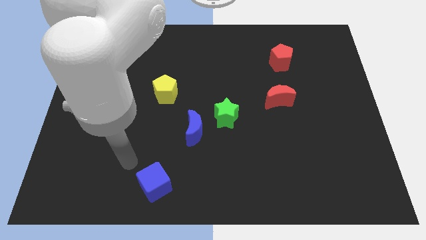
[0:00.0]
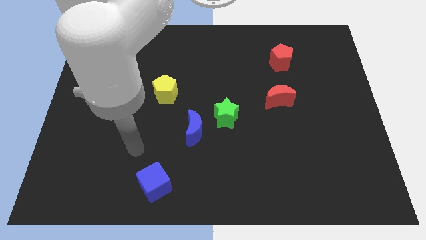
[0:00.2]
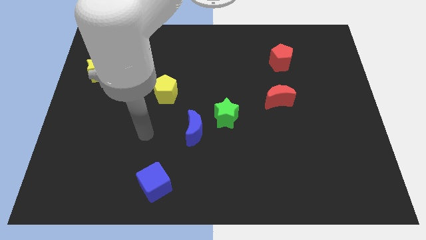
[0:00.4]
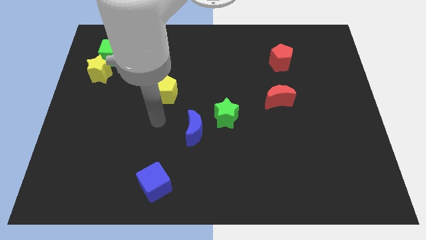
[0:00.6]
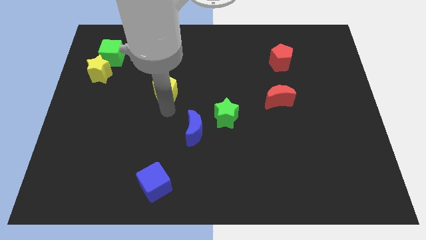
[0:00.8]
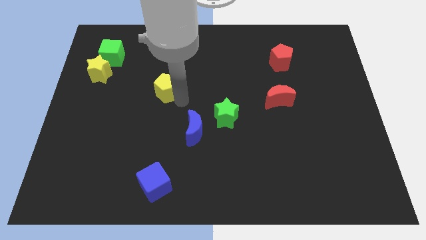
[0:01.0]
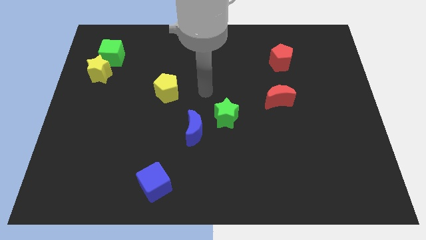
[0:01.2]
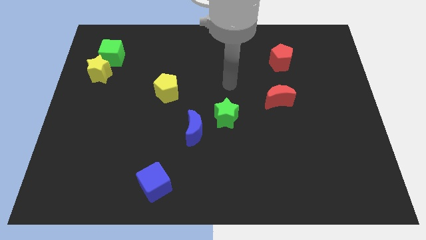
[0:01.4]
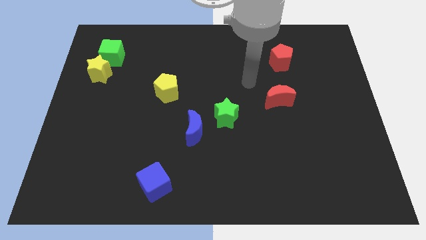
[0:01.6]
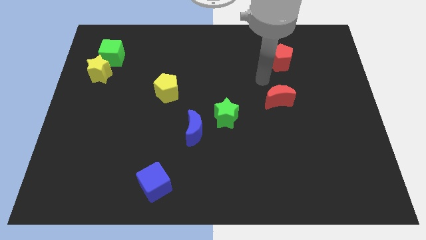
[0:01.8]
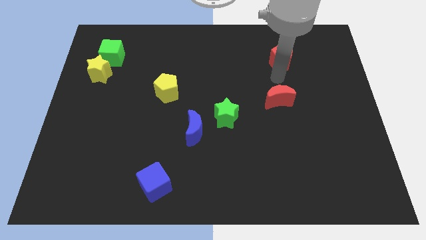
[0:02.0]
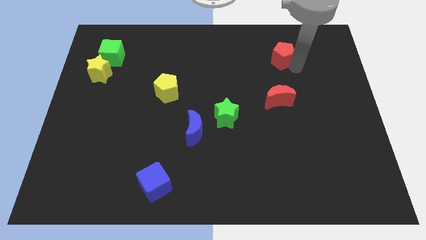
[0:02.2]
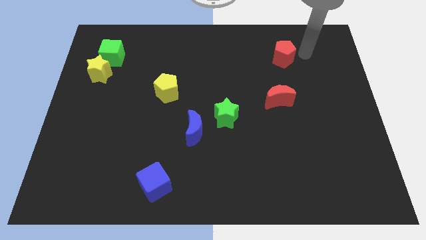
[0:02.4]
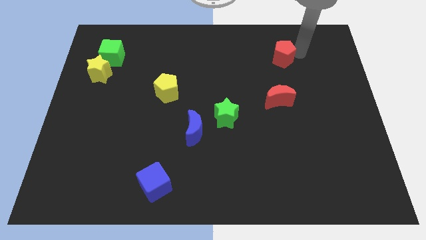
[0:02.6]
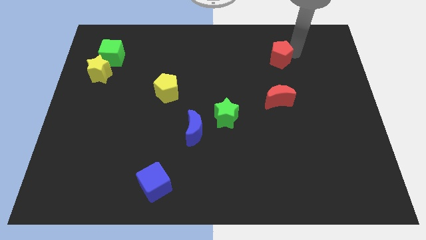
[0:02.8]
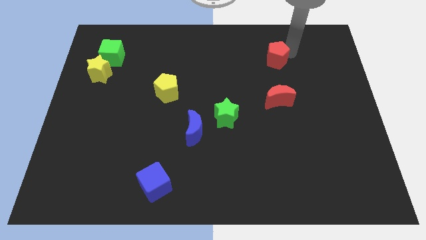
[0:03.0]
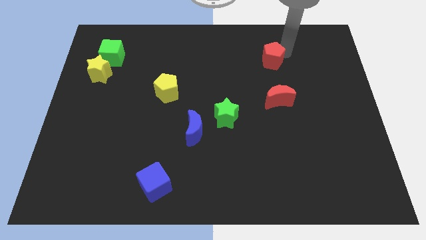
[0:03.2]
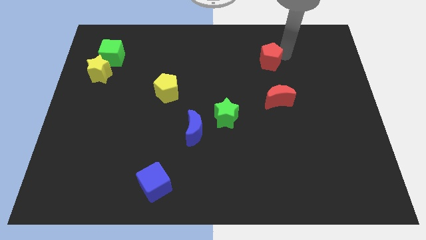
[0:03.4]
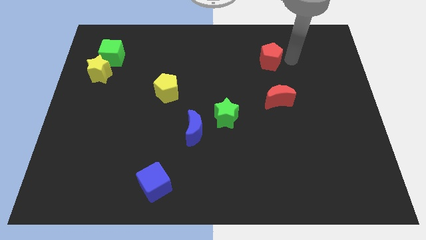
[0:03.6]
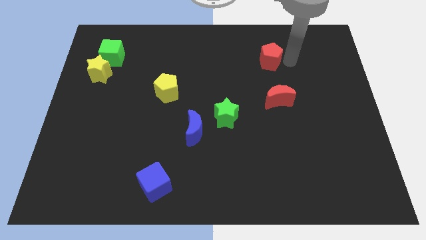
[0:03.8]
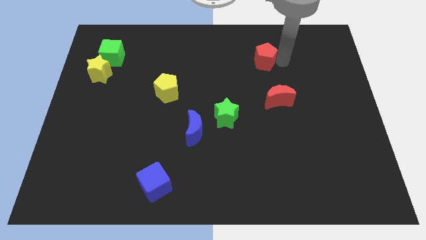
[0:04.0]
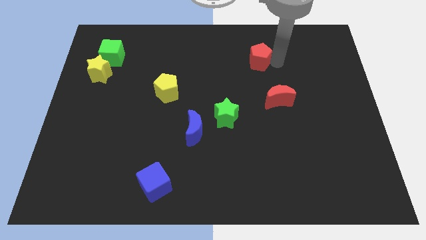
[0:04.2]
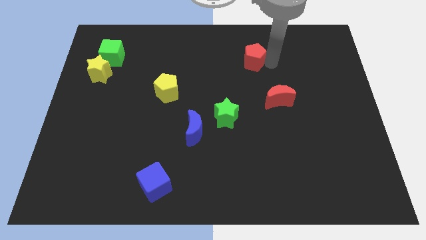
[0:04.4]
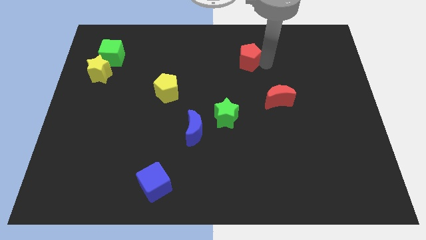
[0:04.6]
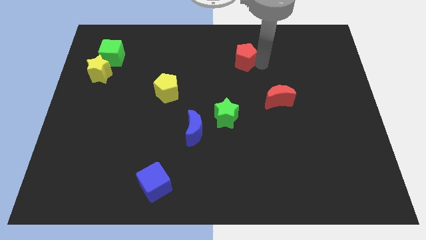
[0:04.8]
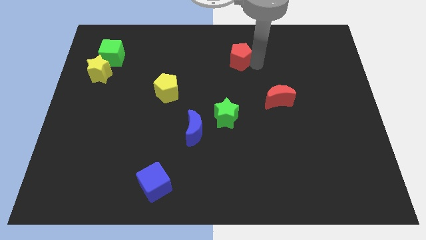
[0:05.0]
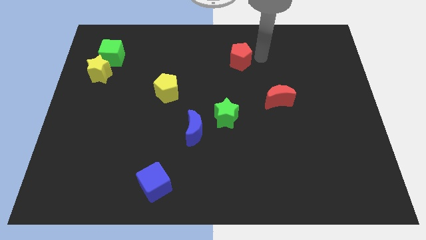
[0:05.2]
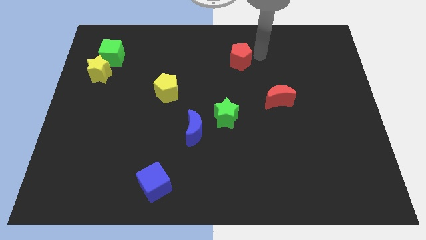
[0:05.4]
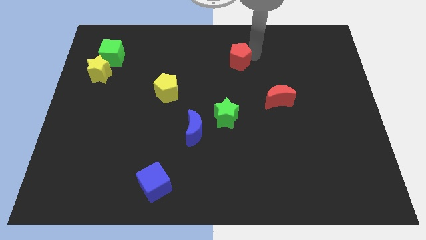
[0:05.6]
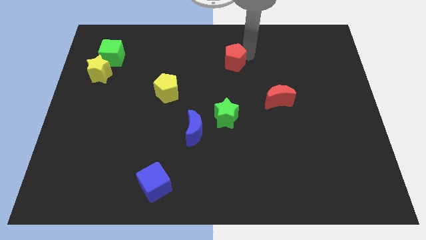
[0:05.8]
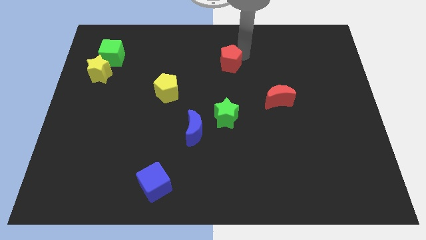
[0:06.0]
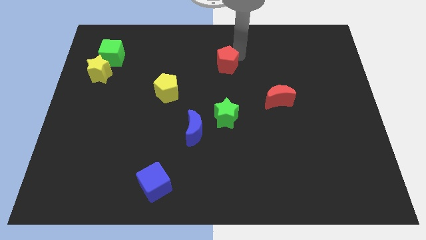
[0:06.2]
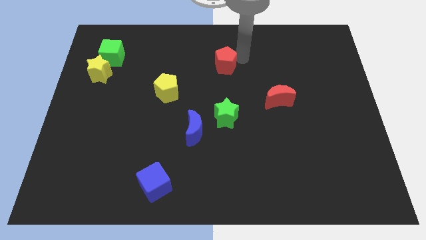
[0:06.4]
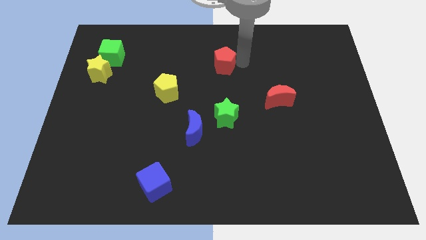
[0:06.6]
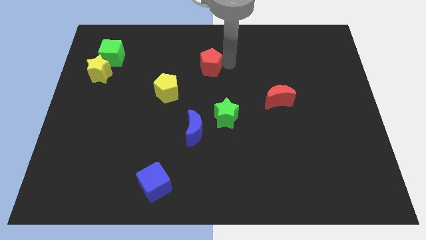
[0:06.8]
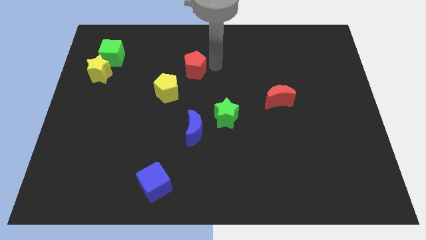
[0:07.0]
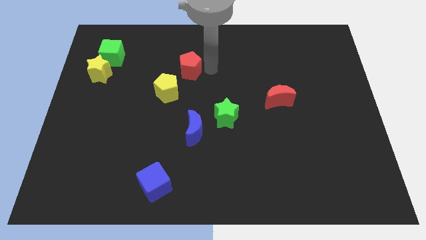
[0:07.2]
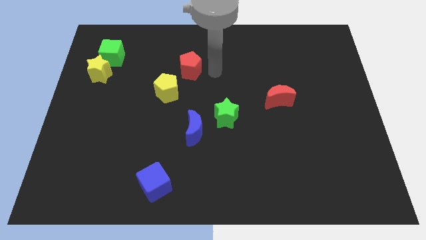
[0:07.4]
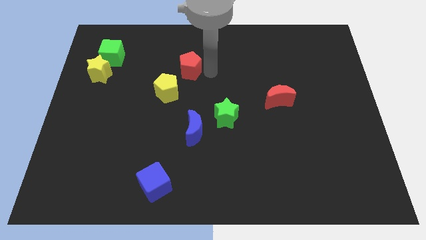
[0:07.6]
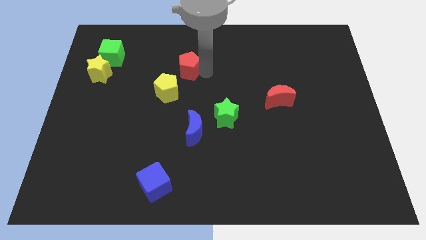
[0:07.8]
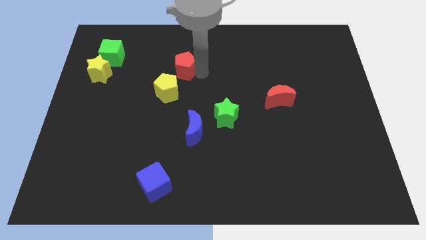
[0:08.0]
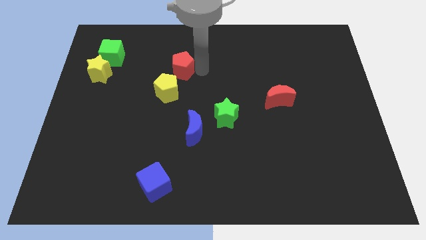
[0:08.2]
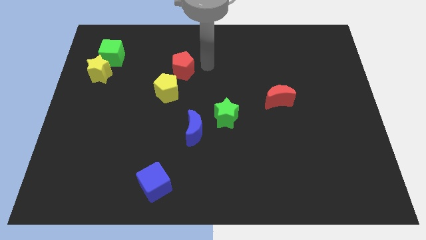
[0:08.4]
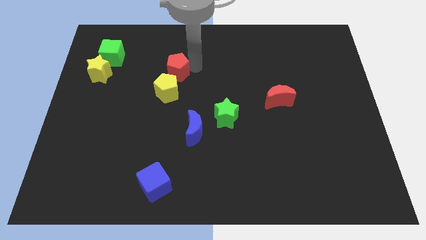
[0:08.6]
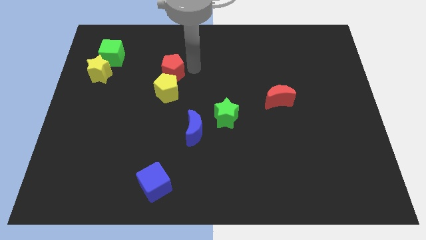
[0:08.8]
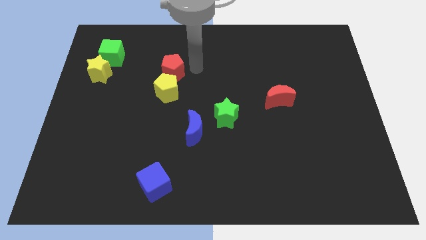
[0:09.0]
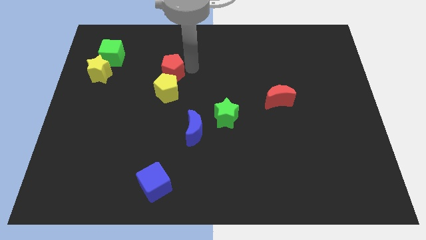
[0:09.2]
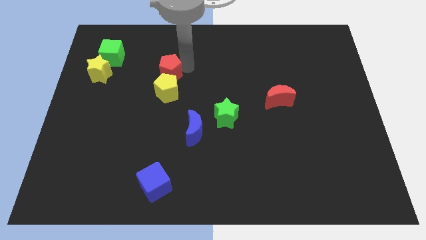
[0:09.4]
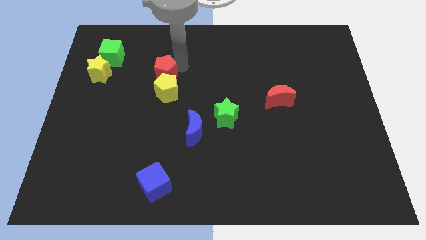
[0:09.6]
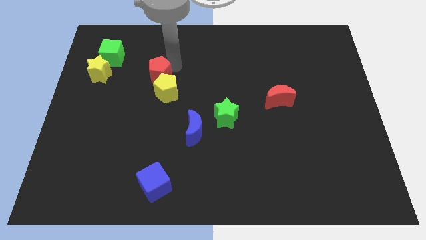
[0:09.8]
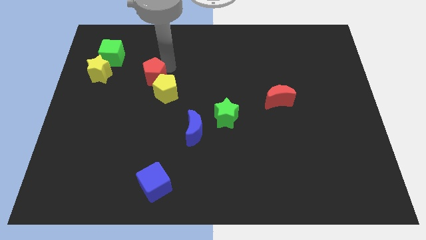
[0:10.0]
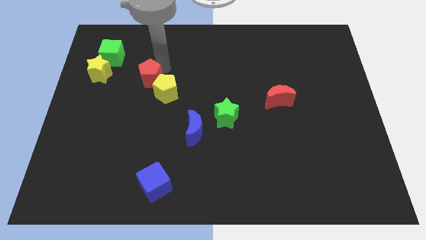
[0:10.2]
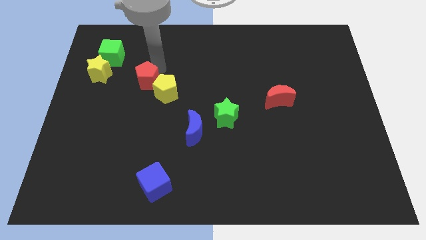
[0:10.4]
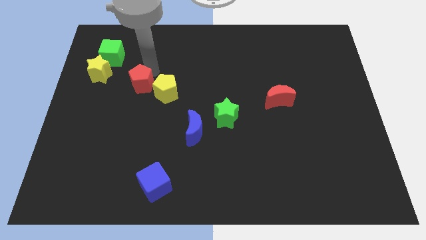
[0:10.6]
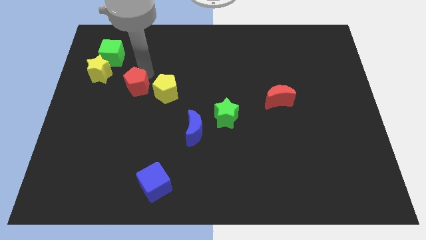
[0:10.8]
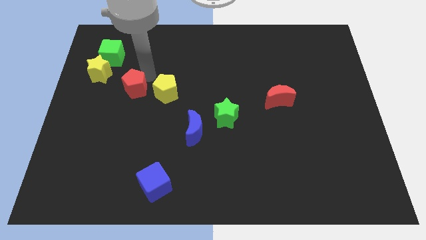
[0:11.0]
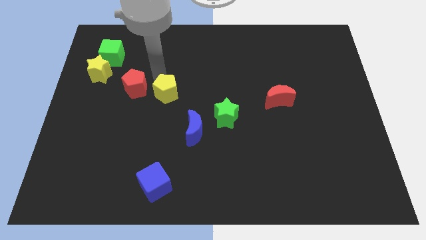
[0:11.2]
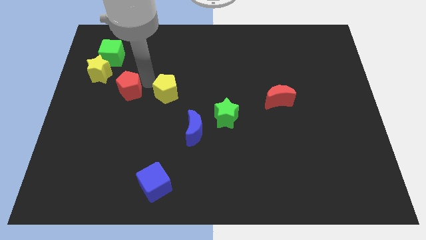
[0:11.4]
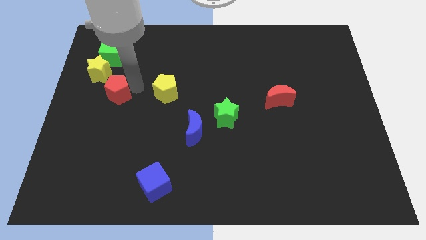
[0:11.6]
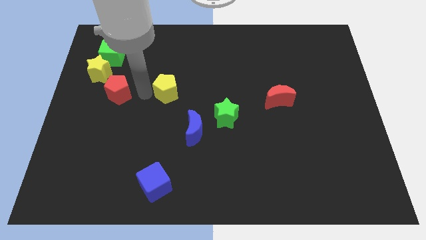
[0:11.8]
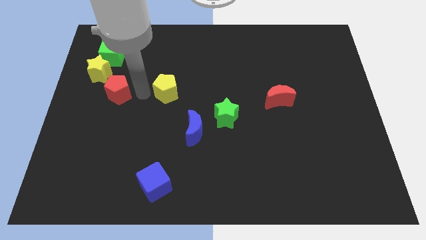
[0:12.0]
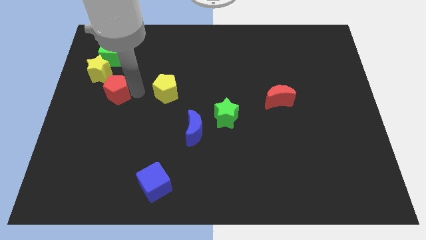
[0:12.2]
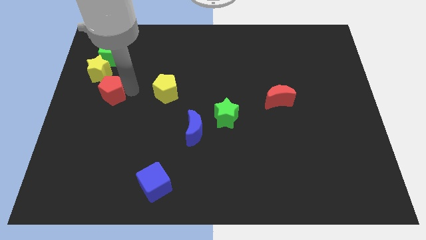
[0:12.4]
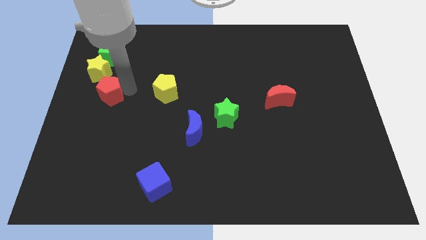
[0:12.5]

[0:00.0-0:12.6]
slide the red pentagon to the center left

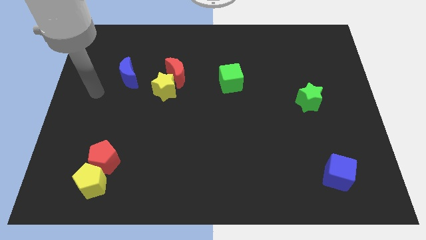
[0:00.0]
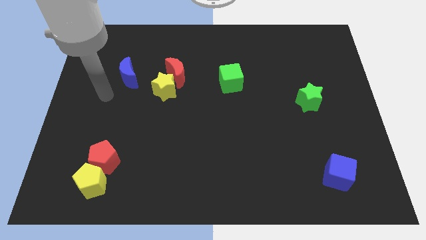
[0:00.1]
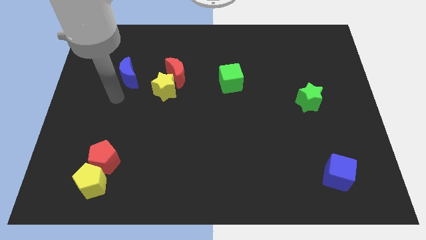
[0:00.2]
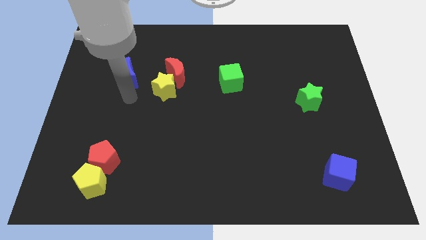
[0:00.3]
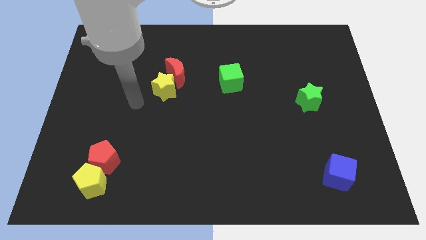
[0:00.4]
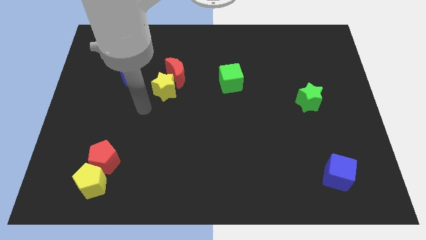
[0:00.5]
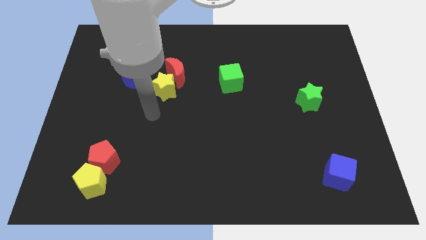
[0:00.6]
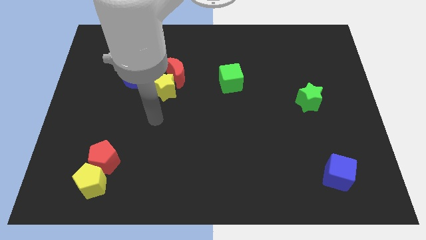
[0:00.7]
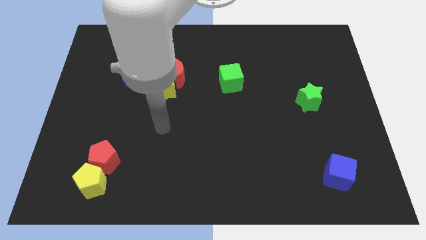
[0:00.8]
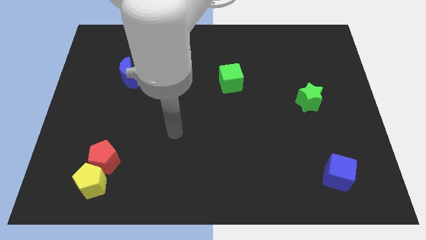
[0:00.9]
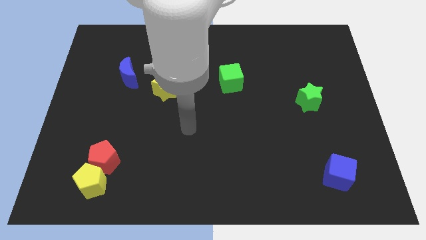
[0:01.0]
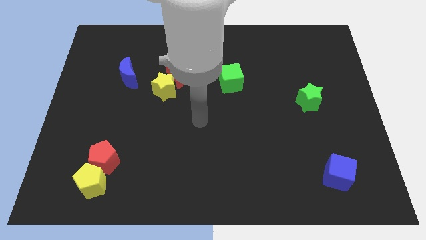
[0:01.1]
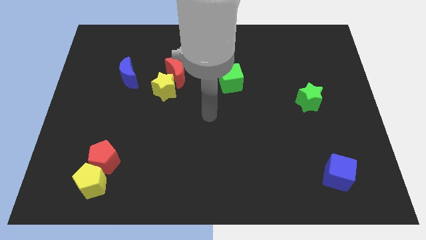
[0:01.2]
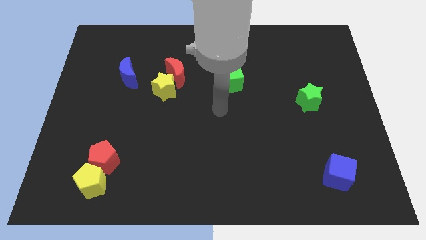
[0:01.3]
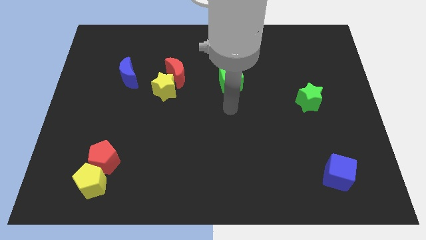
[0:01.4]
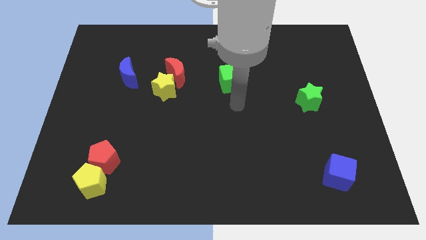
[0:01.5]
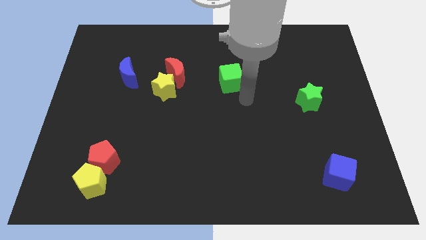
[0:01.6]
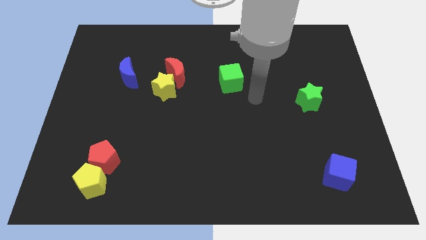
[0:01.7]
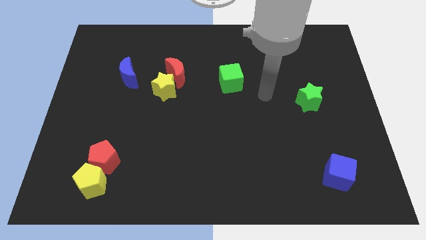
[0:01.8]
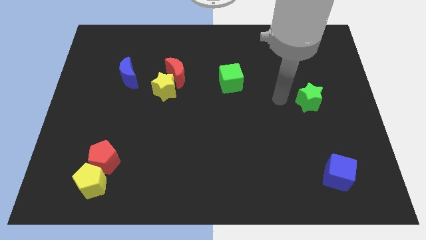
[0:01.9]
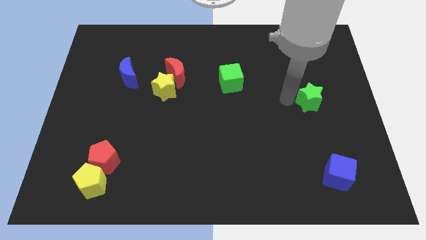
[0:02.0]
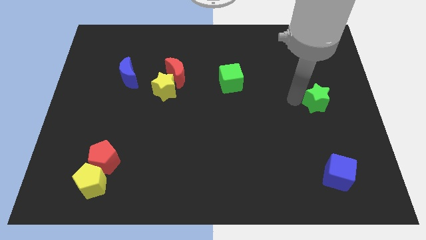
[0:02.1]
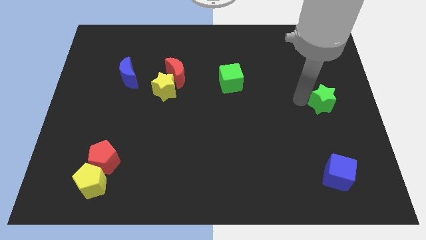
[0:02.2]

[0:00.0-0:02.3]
move the green star to the center right

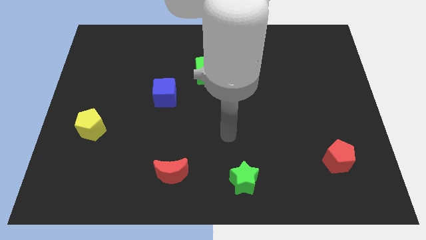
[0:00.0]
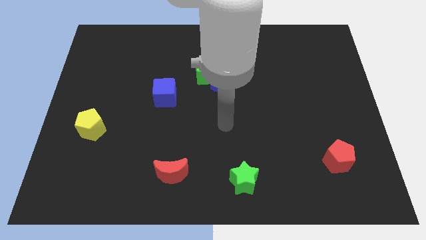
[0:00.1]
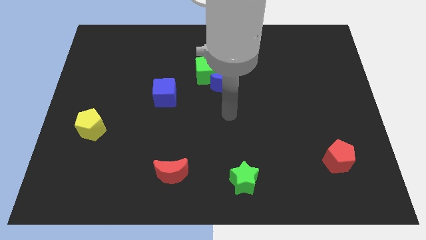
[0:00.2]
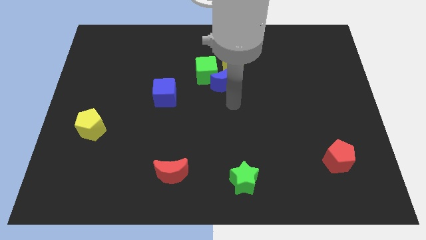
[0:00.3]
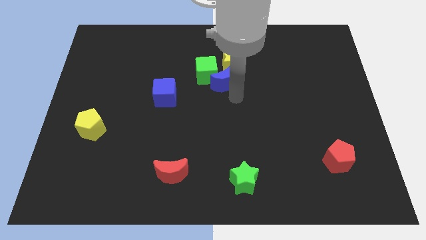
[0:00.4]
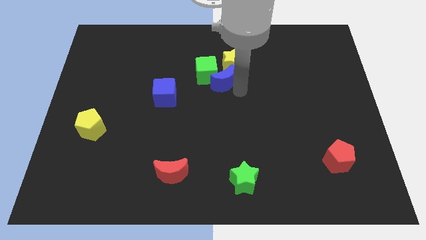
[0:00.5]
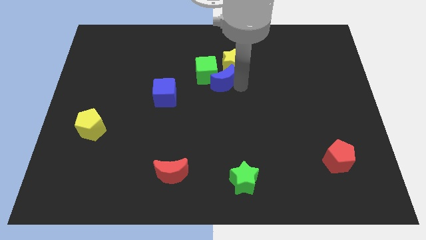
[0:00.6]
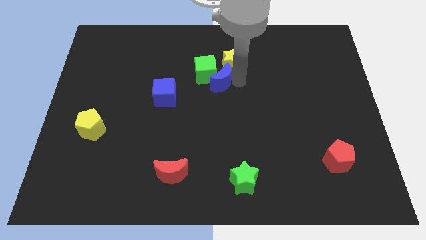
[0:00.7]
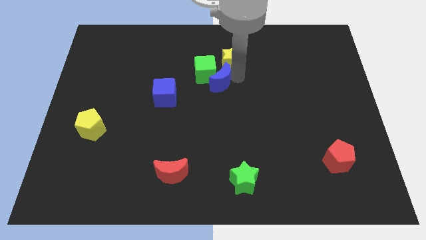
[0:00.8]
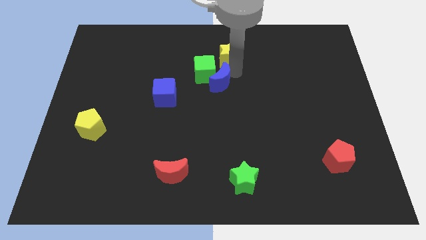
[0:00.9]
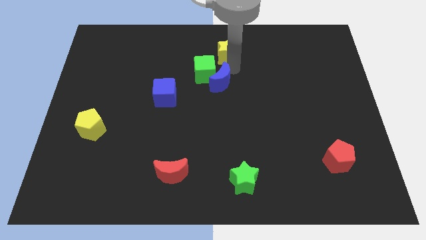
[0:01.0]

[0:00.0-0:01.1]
push the yellow star to the top side
